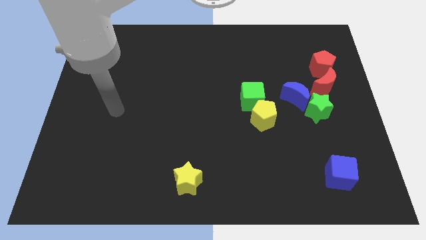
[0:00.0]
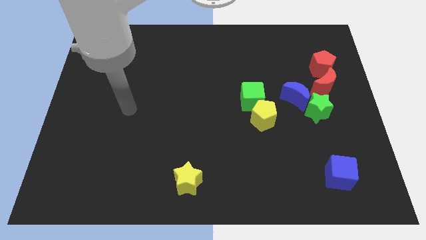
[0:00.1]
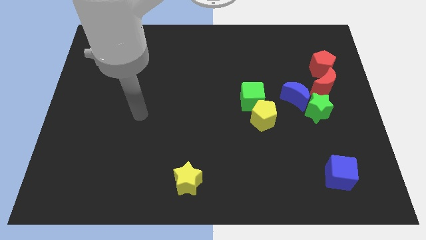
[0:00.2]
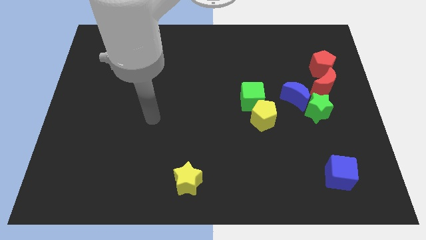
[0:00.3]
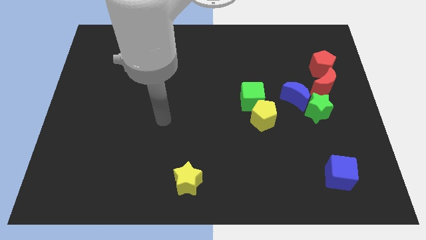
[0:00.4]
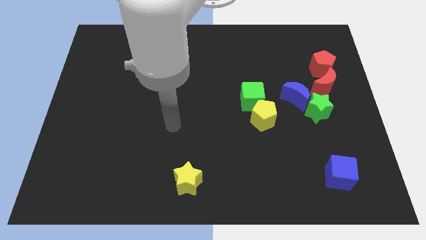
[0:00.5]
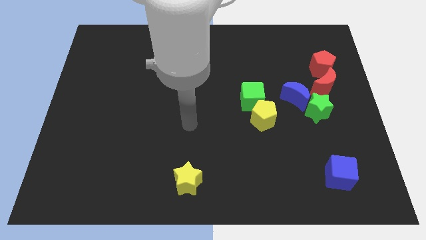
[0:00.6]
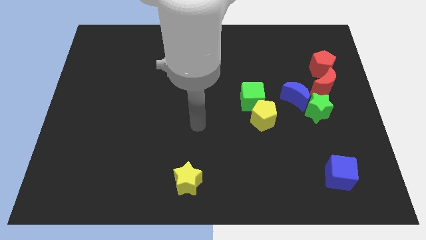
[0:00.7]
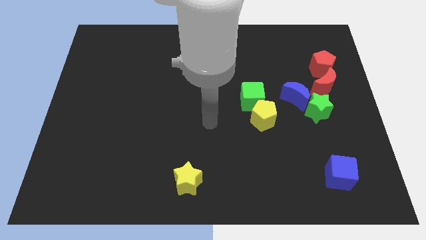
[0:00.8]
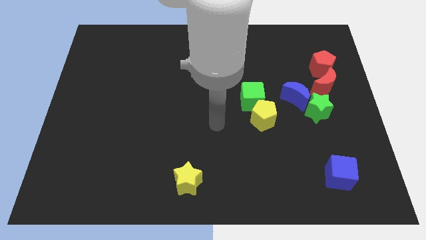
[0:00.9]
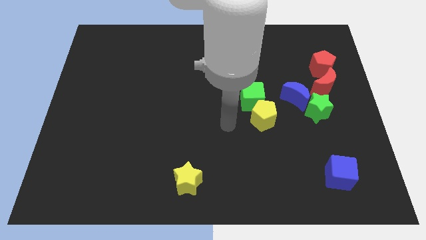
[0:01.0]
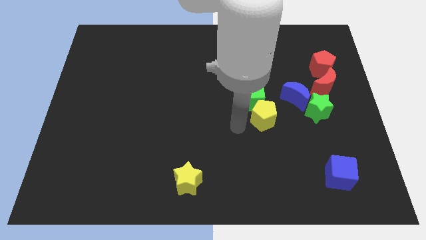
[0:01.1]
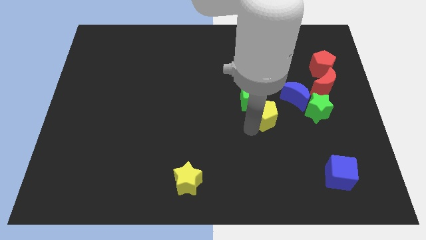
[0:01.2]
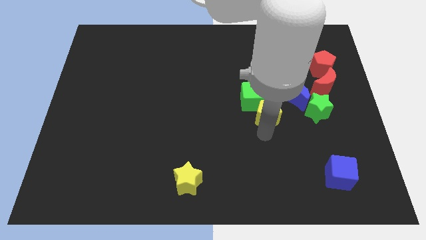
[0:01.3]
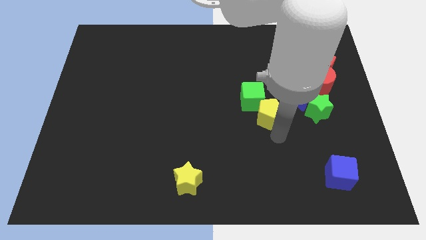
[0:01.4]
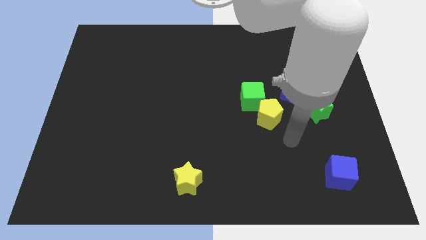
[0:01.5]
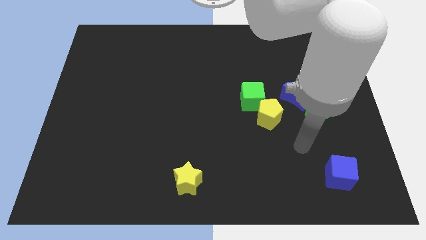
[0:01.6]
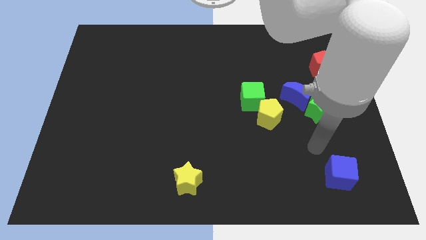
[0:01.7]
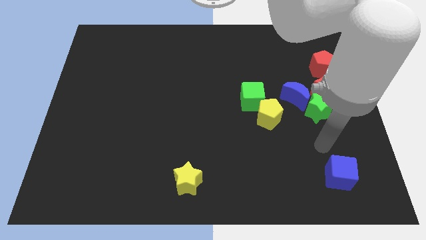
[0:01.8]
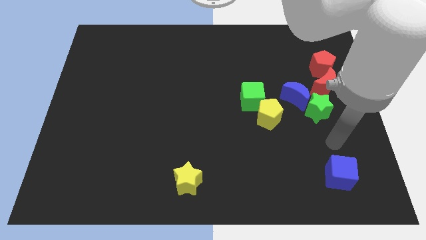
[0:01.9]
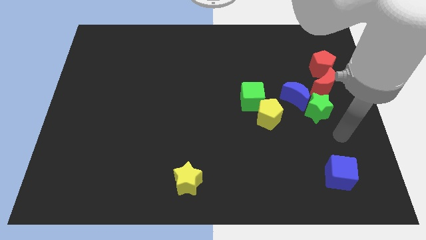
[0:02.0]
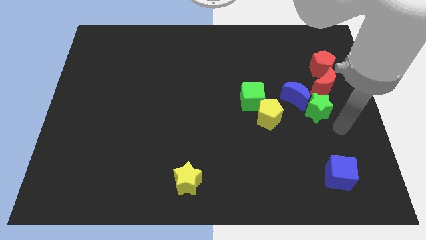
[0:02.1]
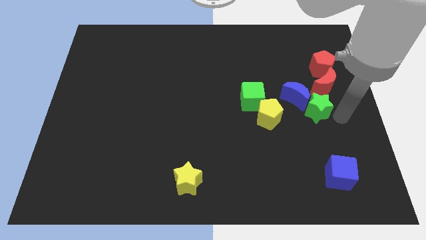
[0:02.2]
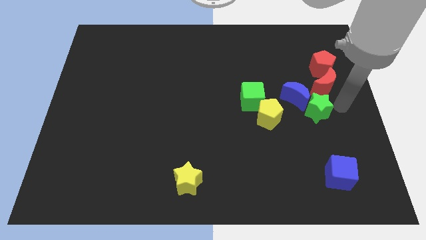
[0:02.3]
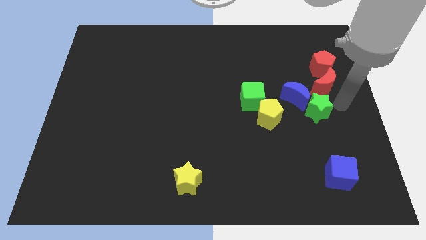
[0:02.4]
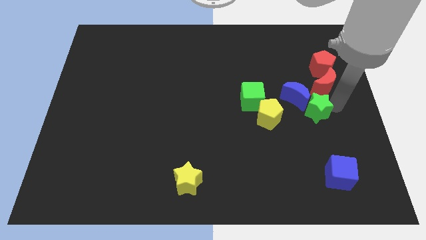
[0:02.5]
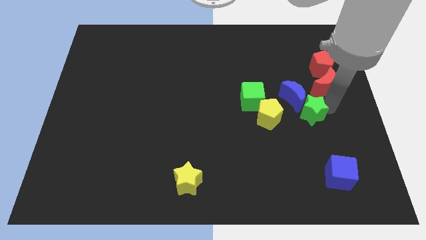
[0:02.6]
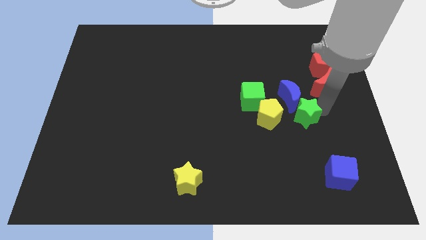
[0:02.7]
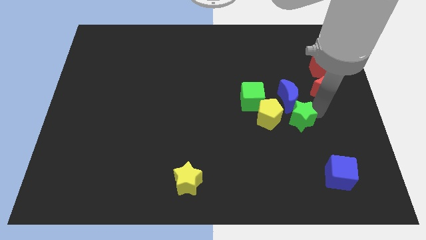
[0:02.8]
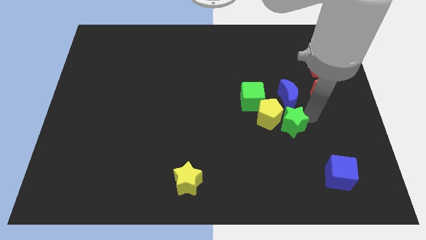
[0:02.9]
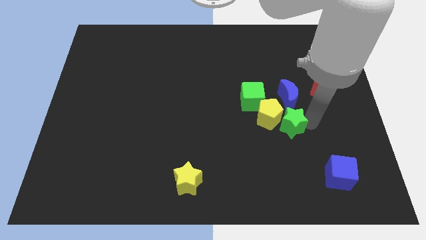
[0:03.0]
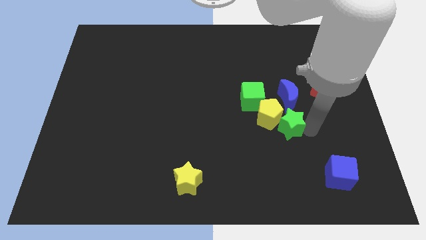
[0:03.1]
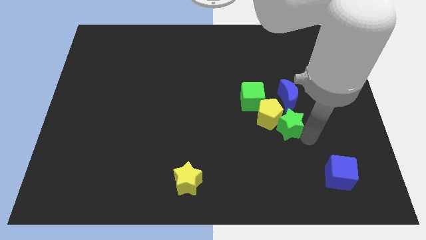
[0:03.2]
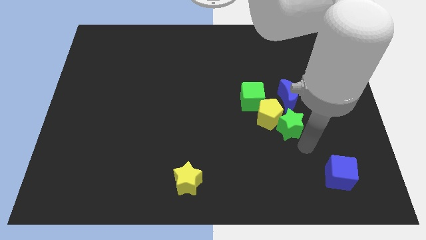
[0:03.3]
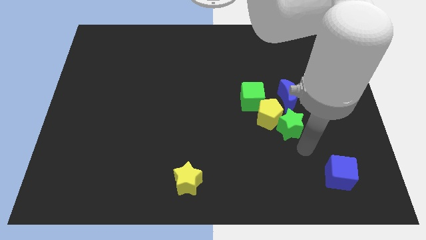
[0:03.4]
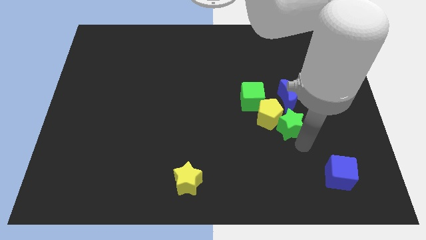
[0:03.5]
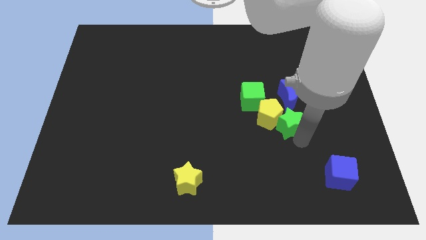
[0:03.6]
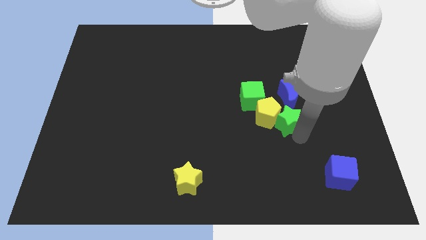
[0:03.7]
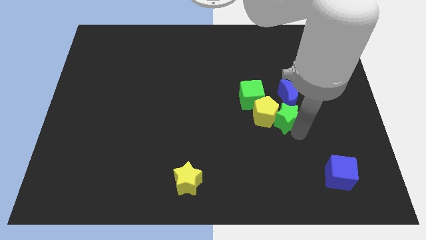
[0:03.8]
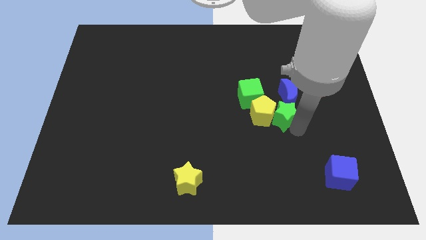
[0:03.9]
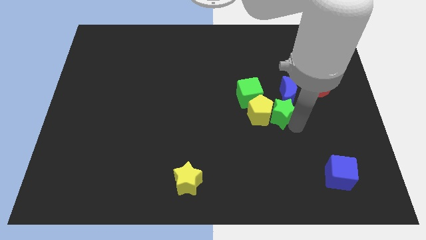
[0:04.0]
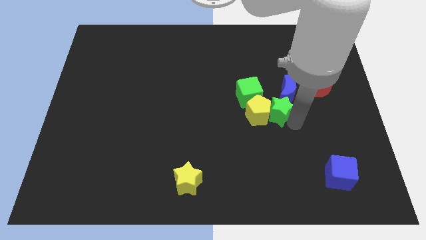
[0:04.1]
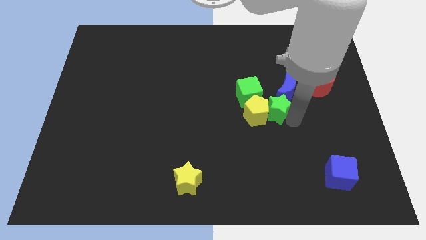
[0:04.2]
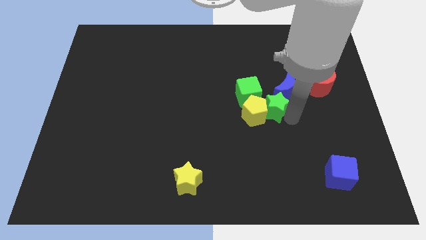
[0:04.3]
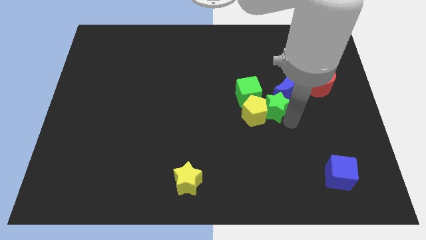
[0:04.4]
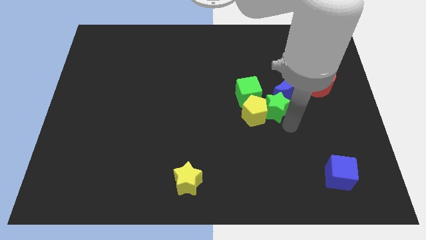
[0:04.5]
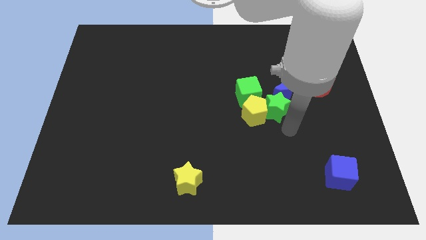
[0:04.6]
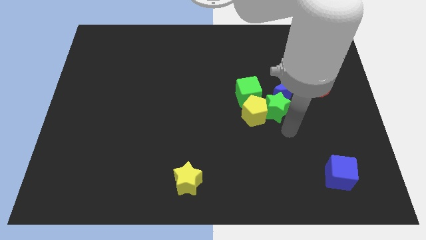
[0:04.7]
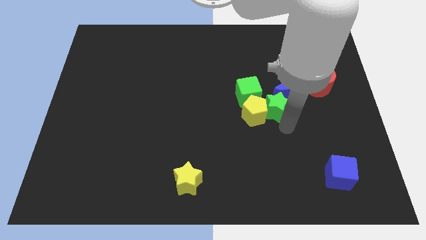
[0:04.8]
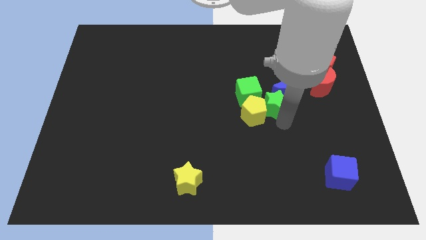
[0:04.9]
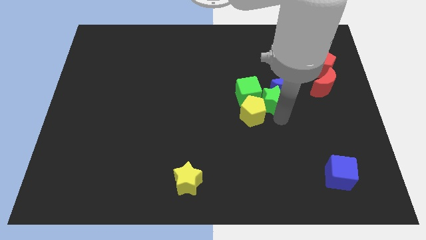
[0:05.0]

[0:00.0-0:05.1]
put the green star next to the green cube

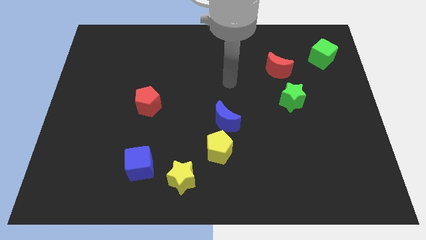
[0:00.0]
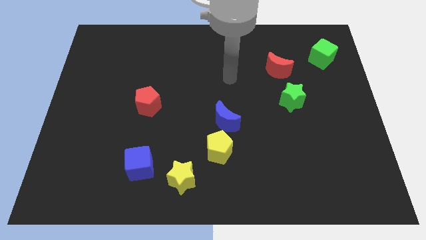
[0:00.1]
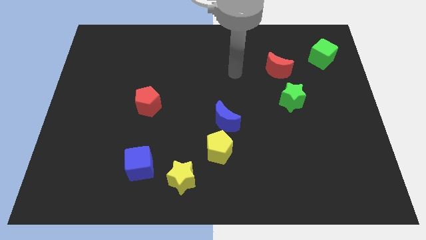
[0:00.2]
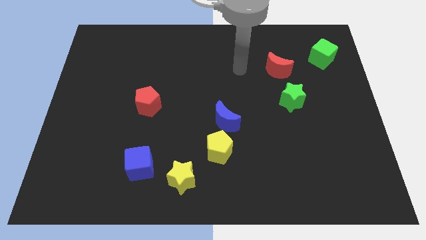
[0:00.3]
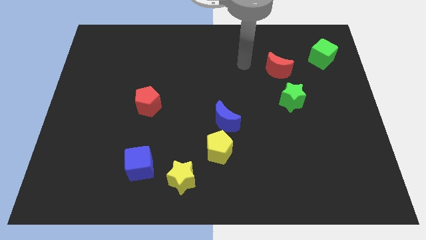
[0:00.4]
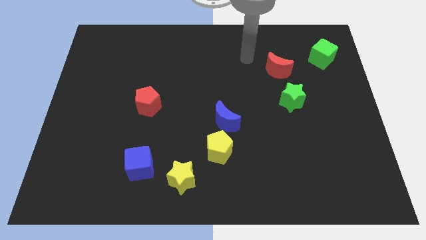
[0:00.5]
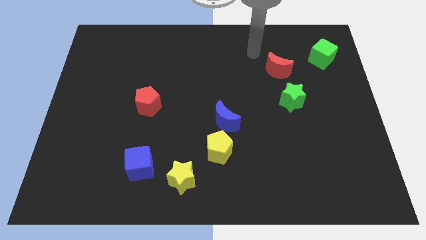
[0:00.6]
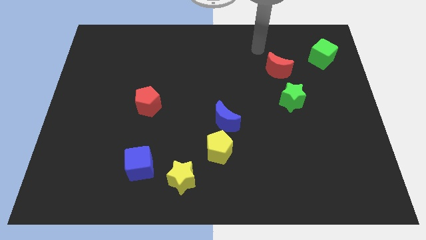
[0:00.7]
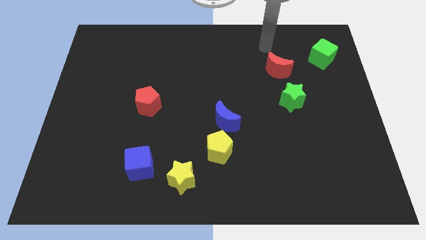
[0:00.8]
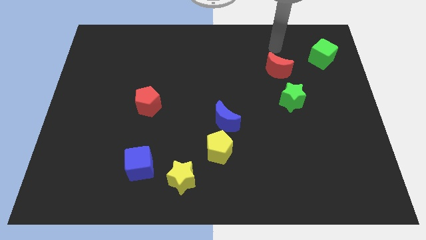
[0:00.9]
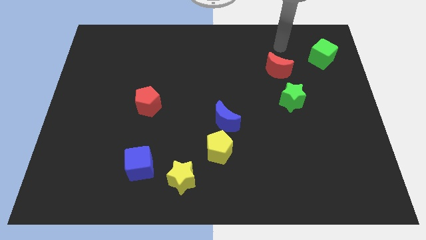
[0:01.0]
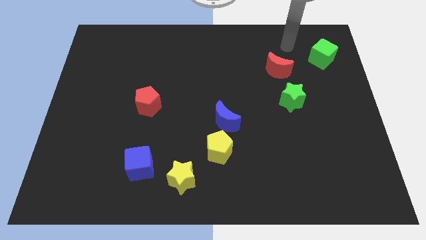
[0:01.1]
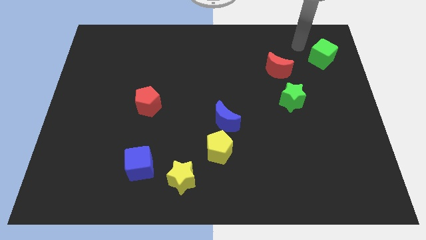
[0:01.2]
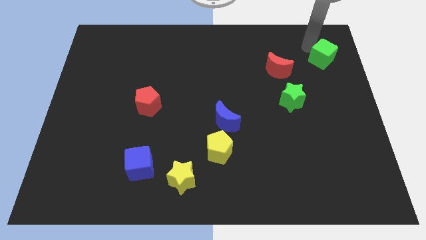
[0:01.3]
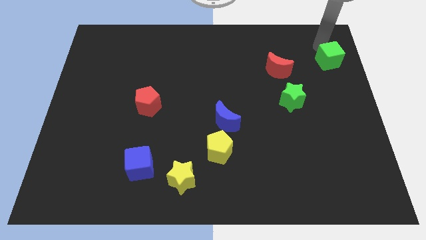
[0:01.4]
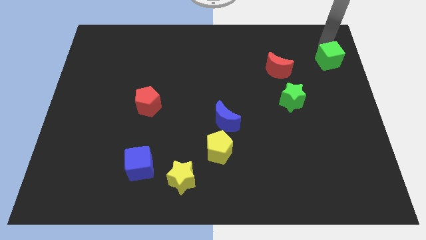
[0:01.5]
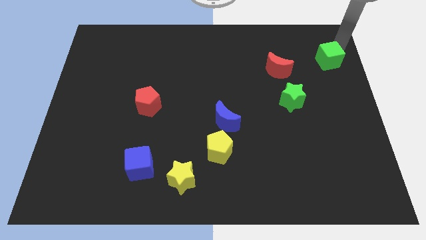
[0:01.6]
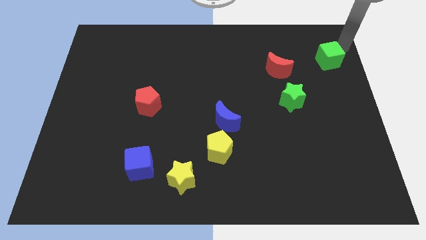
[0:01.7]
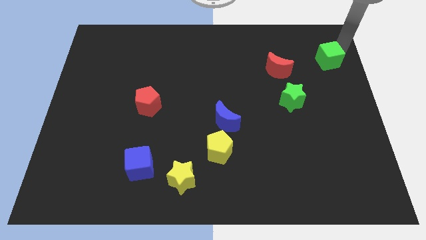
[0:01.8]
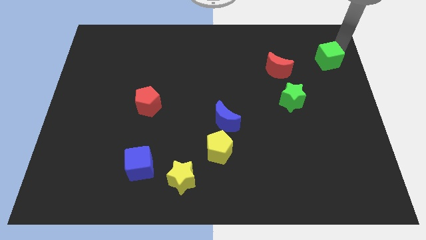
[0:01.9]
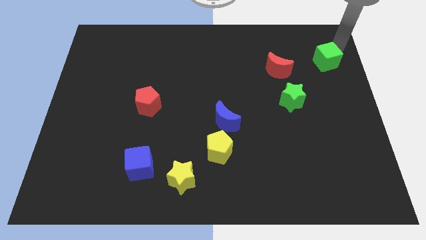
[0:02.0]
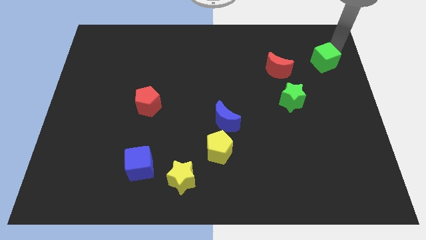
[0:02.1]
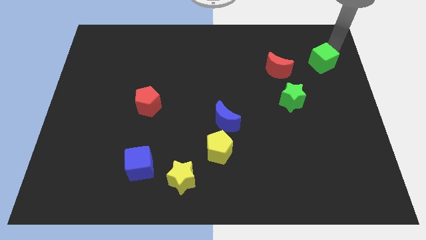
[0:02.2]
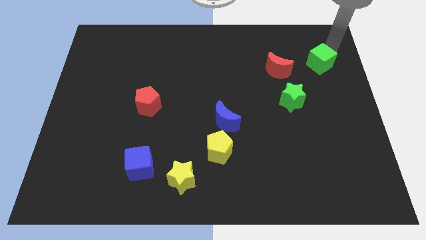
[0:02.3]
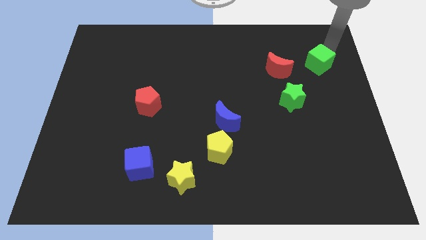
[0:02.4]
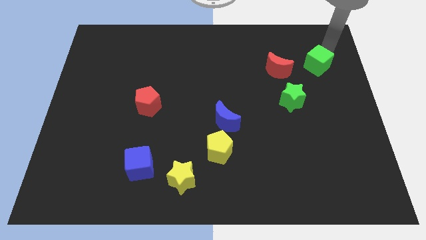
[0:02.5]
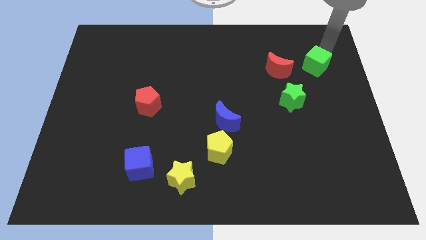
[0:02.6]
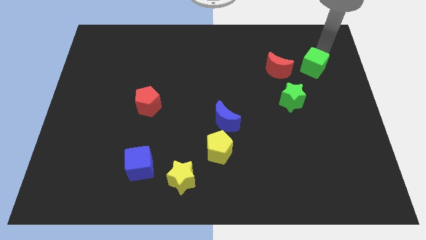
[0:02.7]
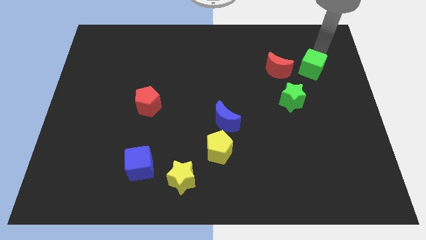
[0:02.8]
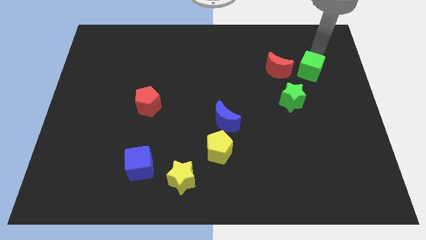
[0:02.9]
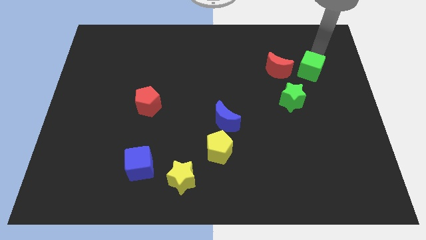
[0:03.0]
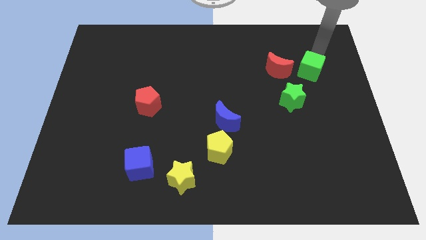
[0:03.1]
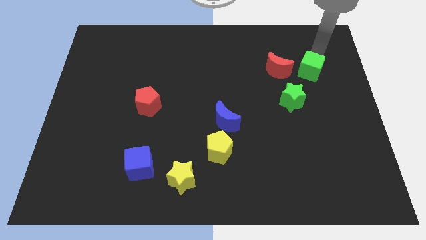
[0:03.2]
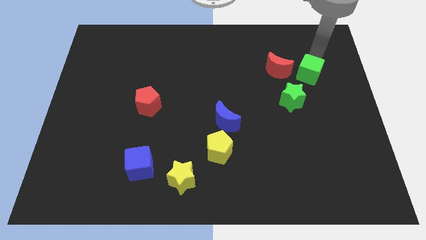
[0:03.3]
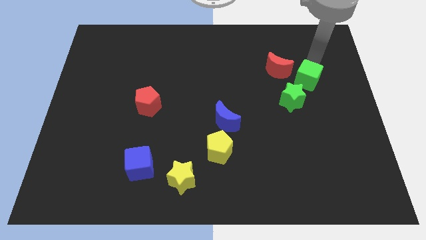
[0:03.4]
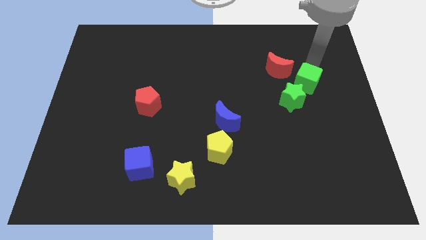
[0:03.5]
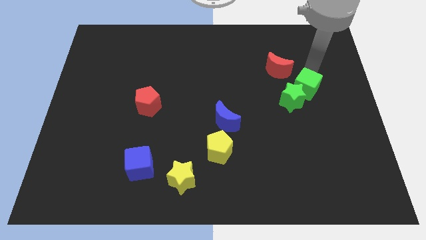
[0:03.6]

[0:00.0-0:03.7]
put the green cube to the green star
